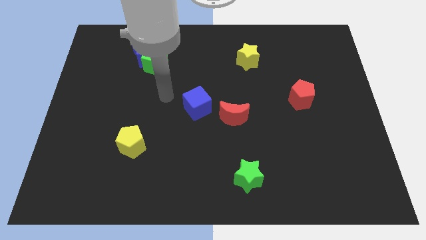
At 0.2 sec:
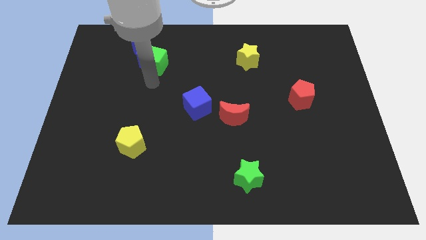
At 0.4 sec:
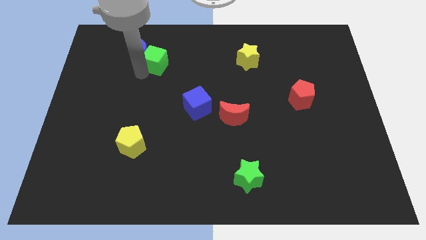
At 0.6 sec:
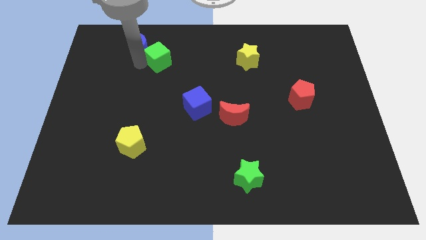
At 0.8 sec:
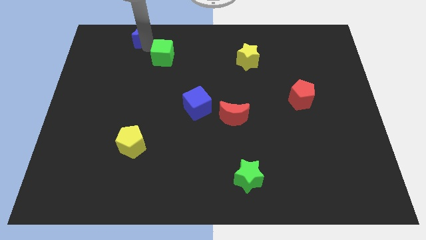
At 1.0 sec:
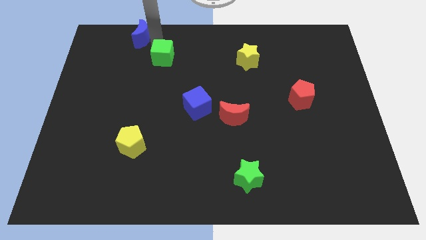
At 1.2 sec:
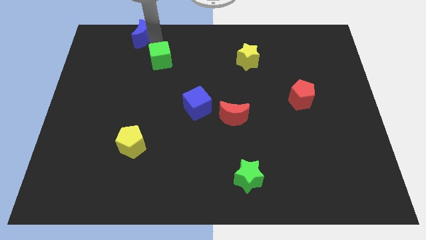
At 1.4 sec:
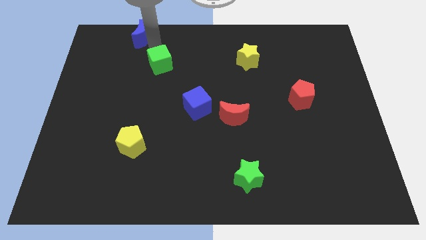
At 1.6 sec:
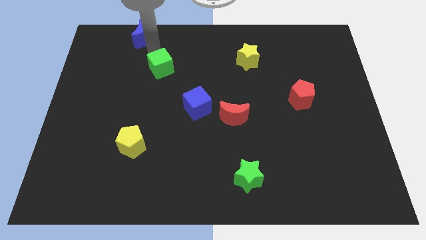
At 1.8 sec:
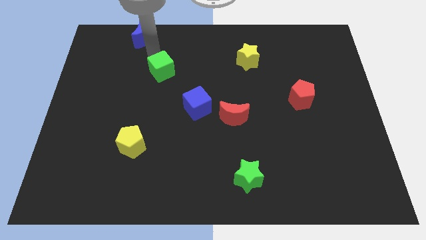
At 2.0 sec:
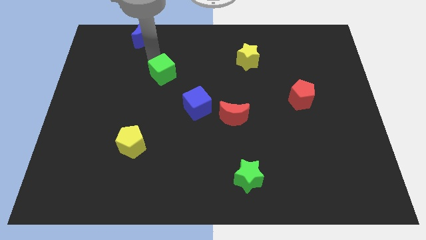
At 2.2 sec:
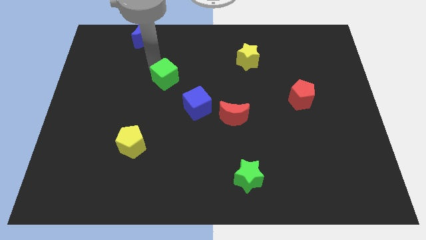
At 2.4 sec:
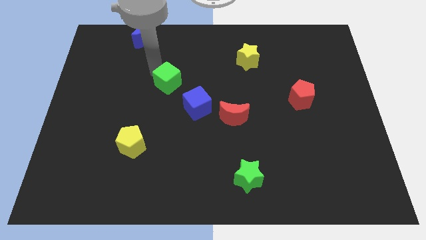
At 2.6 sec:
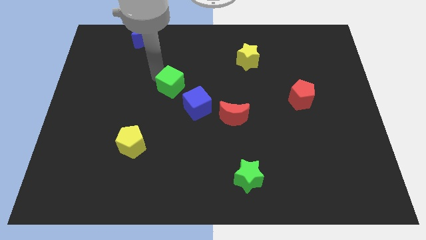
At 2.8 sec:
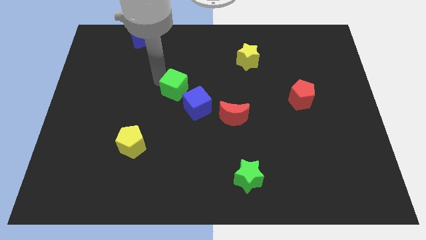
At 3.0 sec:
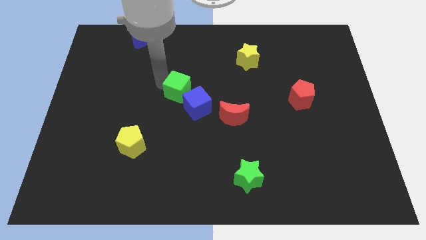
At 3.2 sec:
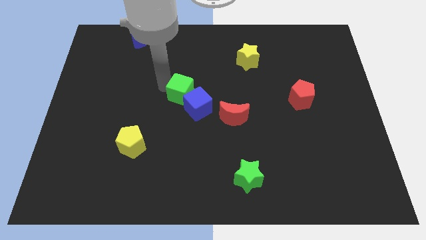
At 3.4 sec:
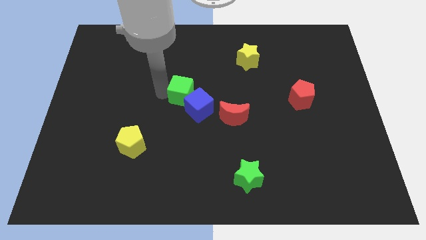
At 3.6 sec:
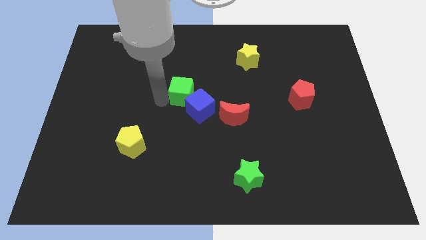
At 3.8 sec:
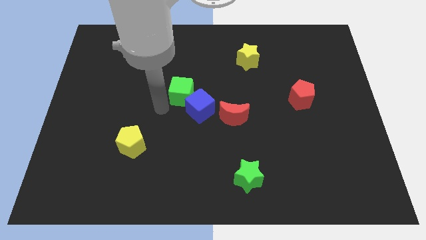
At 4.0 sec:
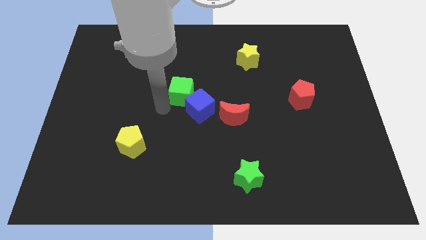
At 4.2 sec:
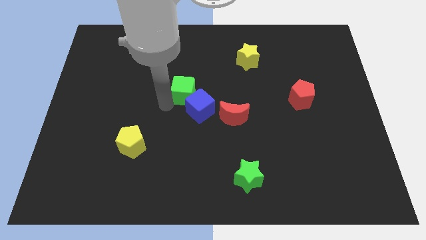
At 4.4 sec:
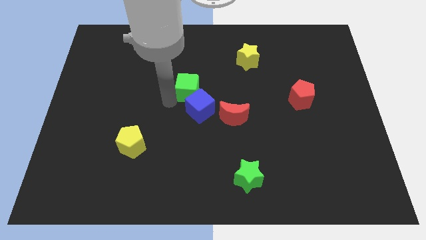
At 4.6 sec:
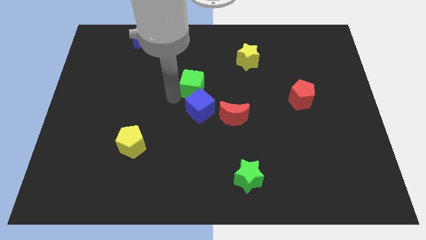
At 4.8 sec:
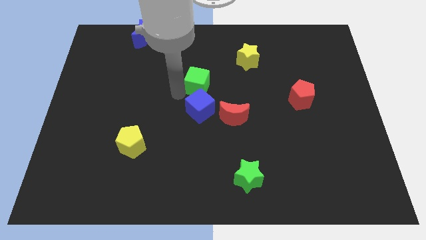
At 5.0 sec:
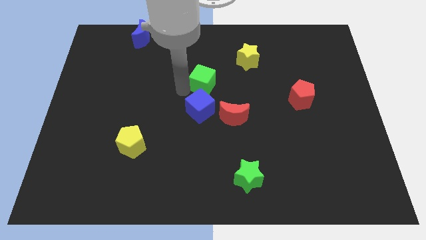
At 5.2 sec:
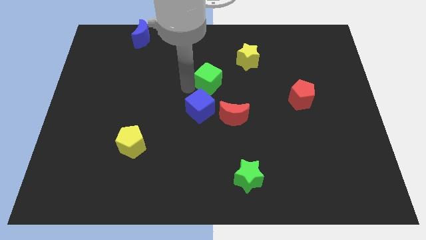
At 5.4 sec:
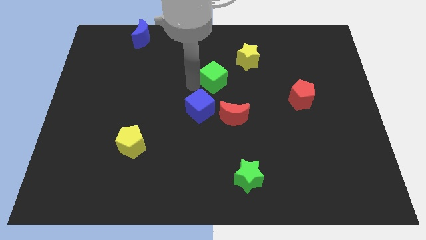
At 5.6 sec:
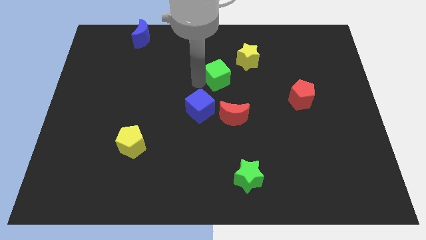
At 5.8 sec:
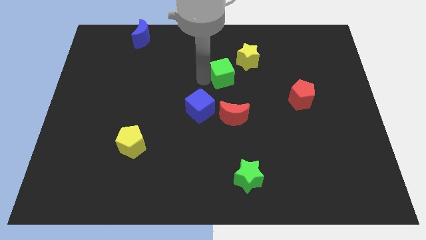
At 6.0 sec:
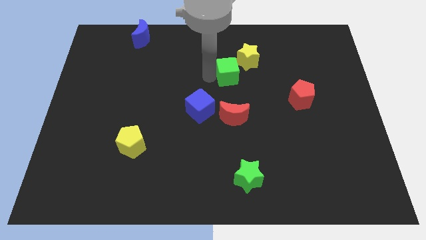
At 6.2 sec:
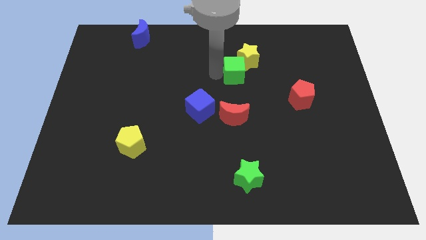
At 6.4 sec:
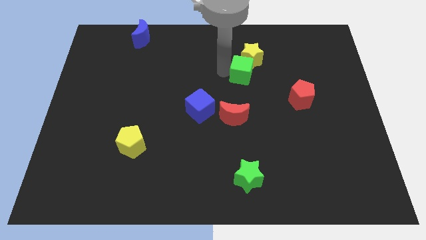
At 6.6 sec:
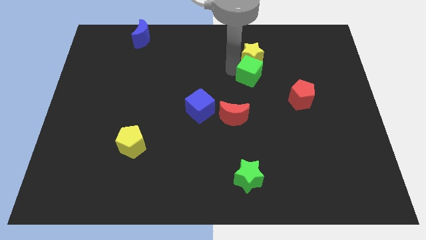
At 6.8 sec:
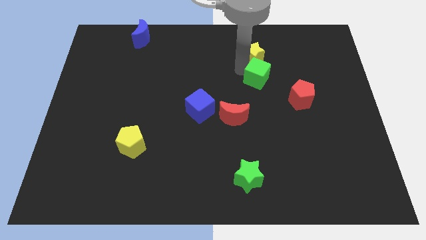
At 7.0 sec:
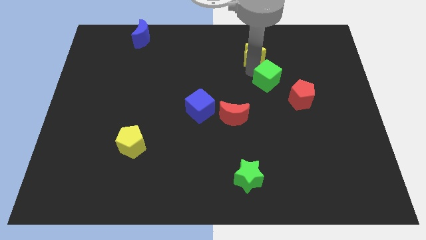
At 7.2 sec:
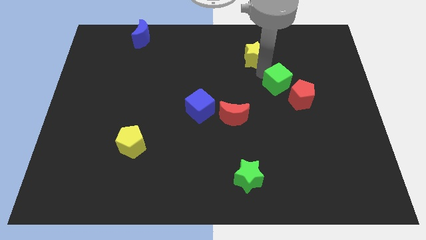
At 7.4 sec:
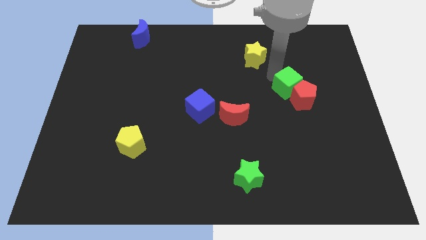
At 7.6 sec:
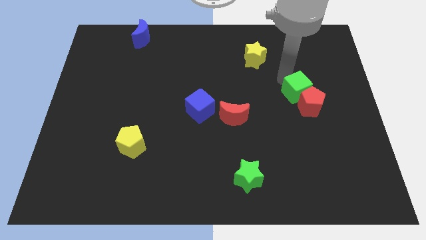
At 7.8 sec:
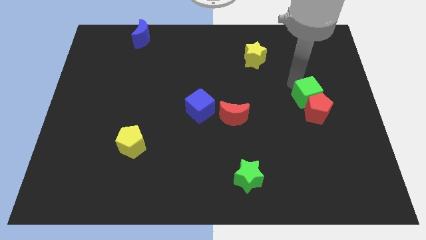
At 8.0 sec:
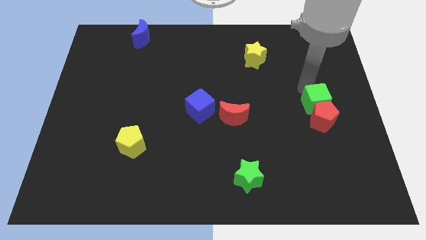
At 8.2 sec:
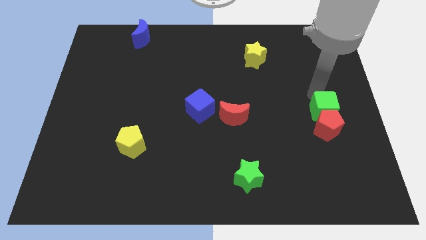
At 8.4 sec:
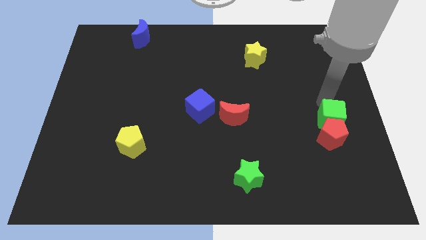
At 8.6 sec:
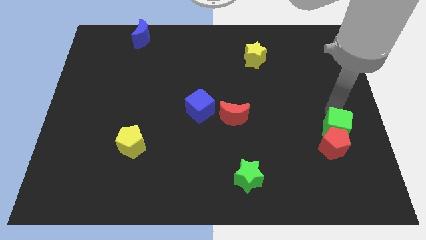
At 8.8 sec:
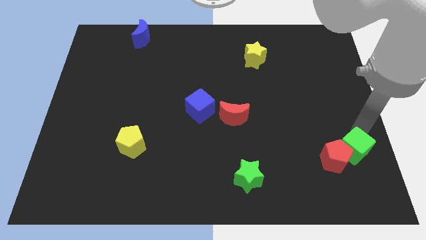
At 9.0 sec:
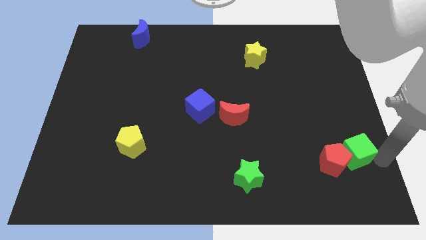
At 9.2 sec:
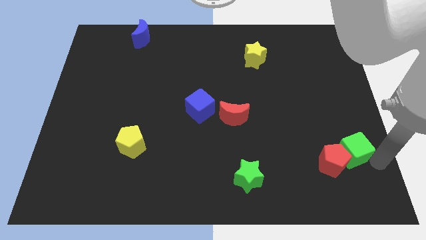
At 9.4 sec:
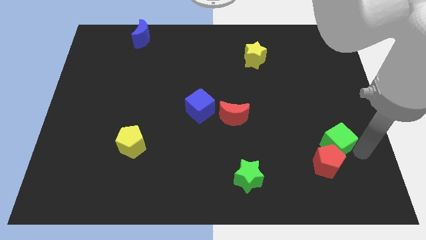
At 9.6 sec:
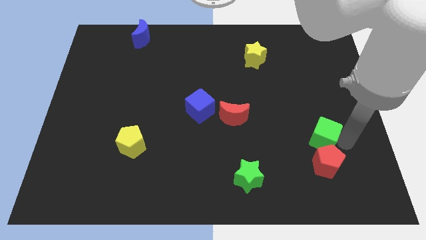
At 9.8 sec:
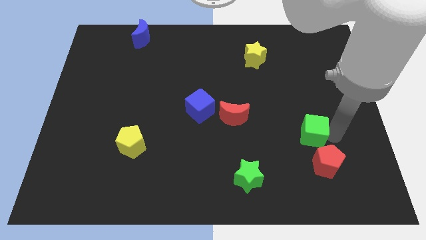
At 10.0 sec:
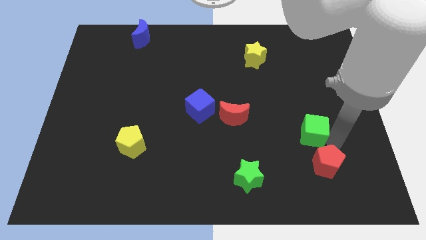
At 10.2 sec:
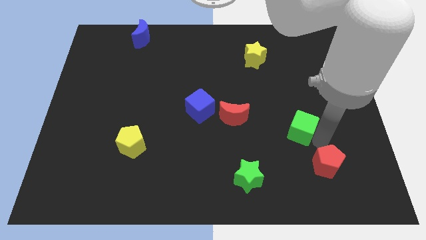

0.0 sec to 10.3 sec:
push the green cube down and then to the right

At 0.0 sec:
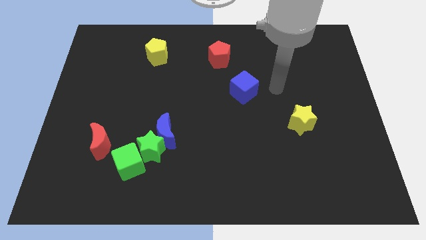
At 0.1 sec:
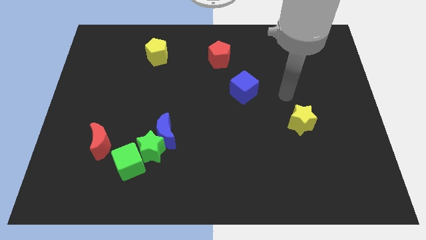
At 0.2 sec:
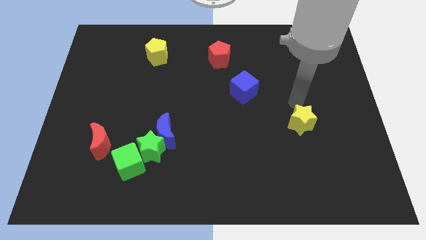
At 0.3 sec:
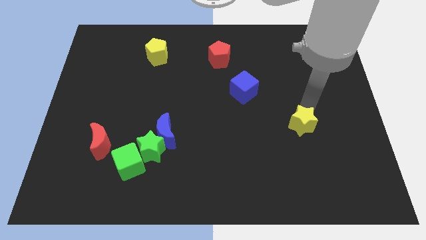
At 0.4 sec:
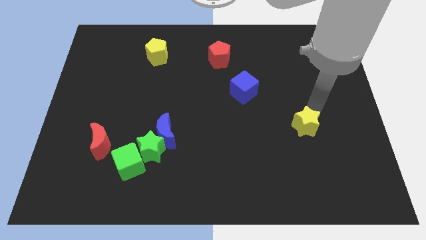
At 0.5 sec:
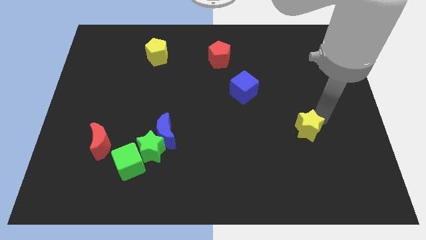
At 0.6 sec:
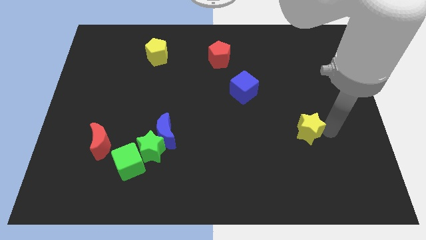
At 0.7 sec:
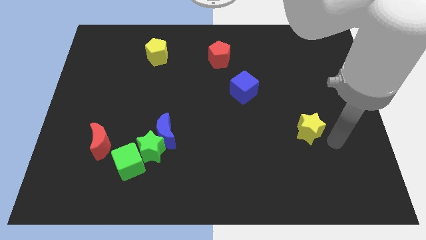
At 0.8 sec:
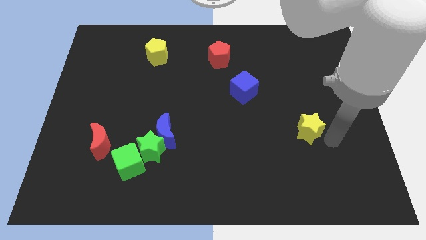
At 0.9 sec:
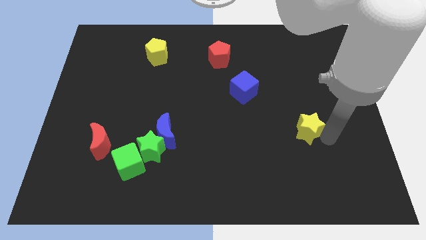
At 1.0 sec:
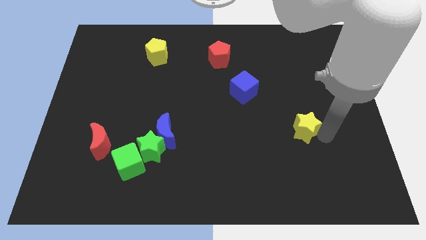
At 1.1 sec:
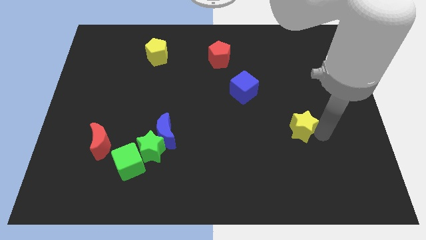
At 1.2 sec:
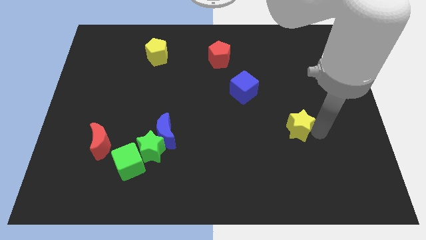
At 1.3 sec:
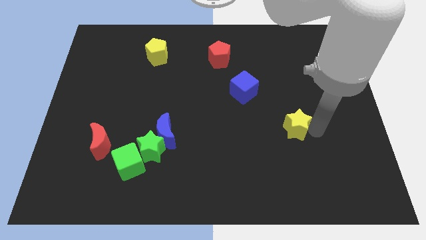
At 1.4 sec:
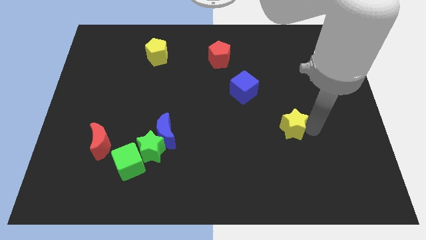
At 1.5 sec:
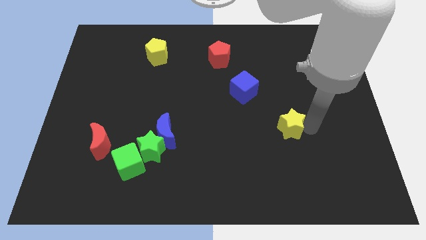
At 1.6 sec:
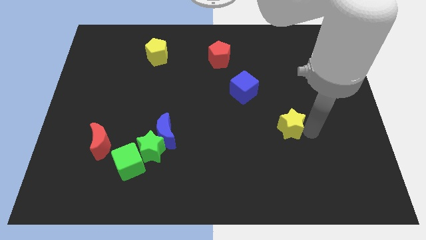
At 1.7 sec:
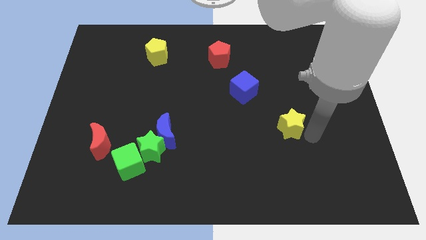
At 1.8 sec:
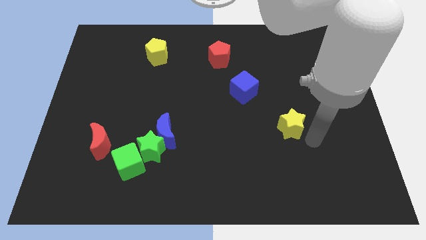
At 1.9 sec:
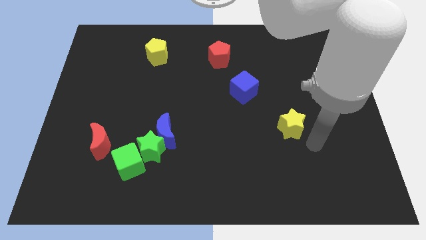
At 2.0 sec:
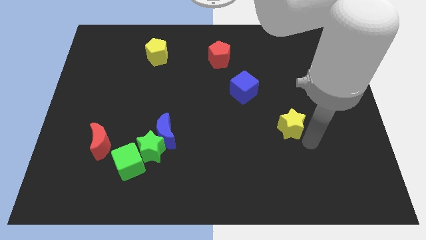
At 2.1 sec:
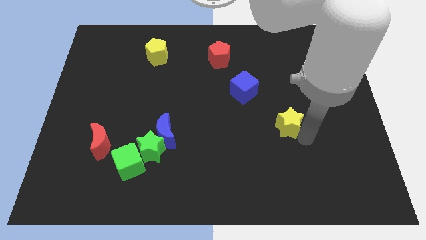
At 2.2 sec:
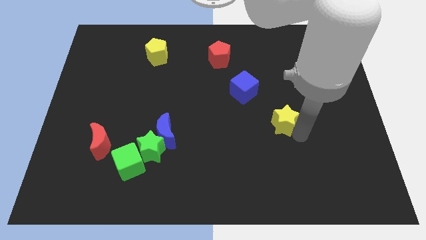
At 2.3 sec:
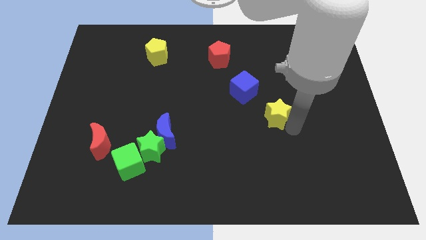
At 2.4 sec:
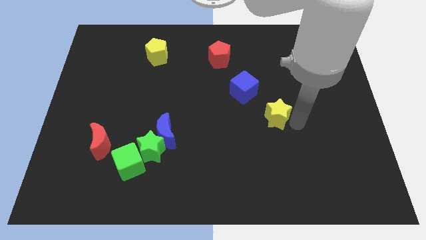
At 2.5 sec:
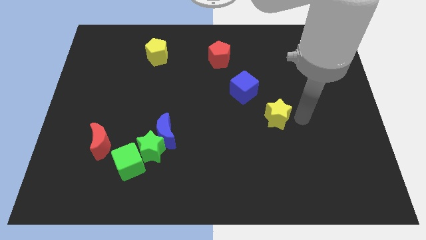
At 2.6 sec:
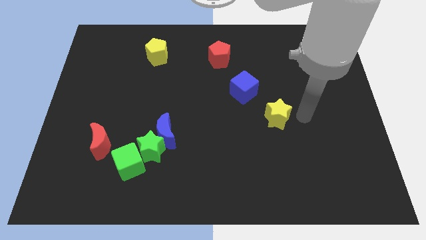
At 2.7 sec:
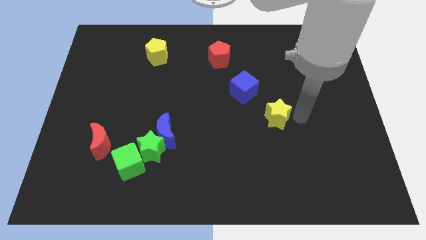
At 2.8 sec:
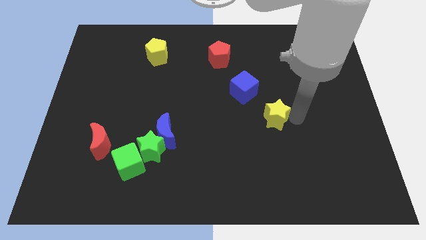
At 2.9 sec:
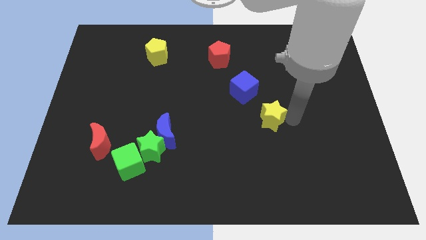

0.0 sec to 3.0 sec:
slide the yellow star slightly left

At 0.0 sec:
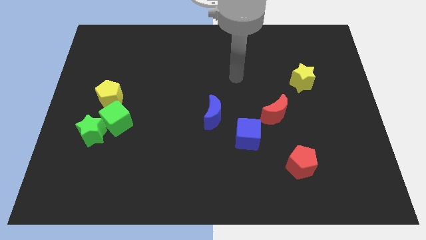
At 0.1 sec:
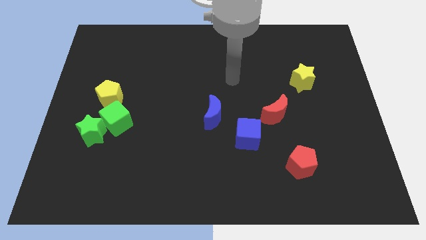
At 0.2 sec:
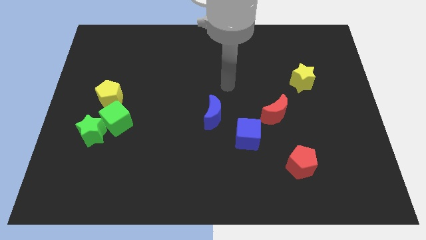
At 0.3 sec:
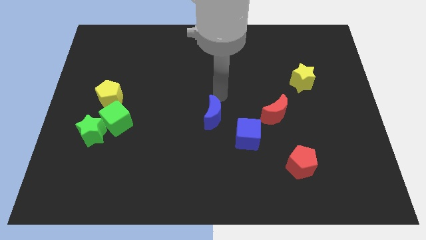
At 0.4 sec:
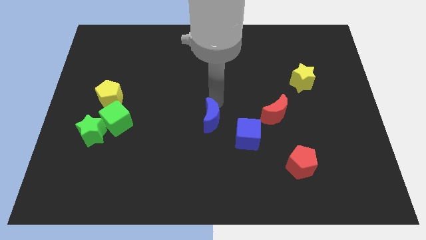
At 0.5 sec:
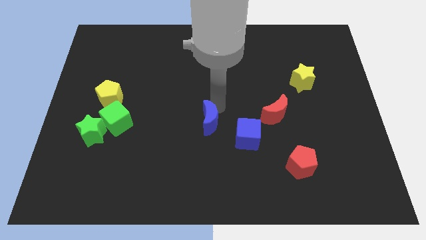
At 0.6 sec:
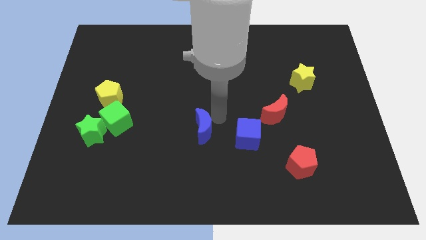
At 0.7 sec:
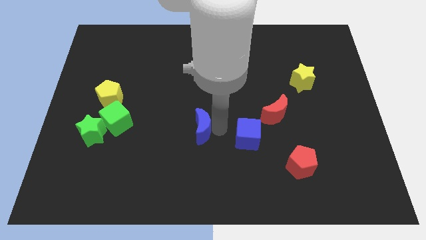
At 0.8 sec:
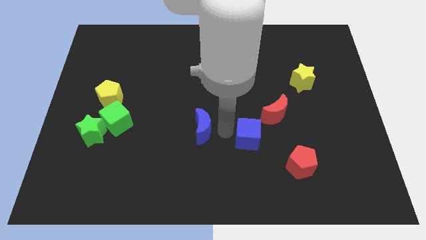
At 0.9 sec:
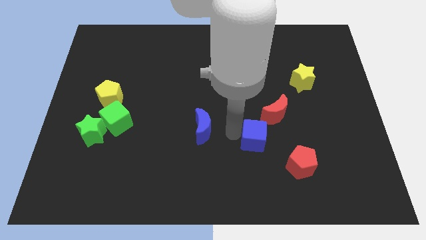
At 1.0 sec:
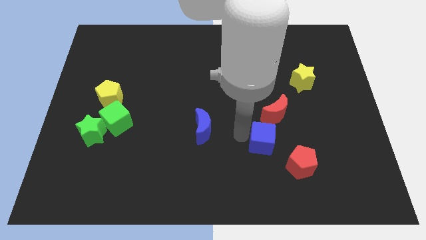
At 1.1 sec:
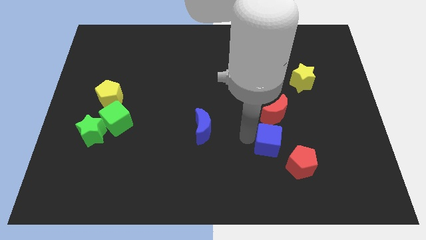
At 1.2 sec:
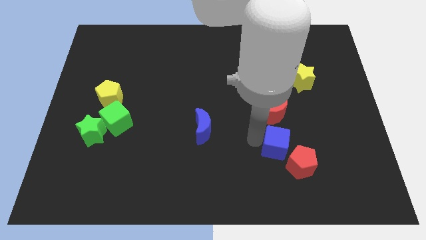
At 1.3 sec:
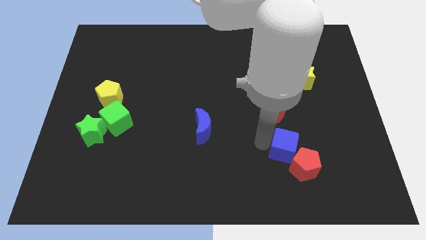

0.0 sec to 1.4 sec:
slide the blue cube right slightly
